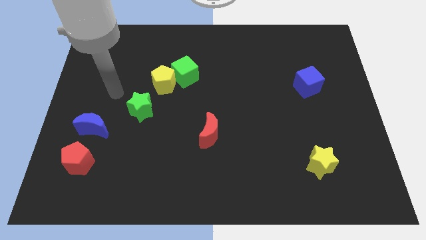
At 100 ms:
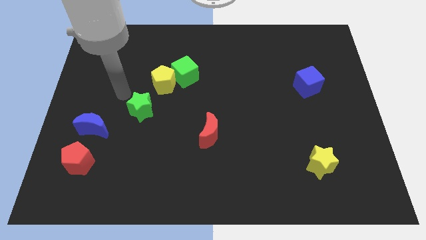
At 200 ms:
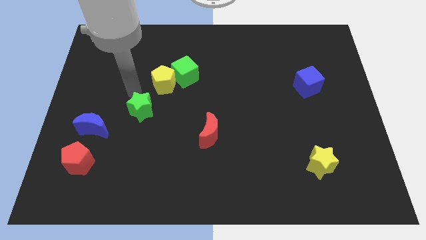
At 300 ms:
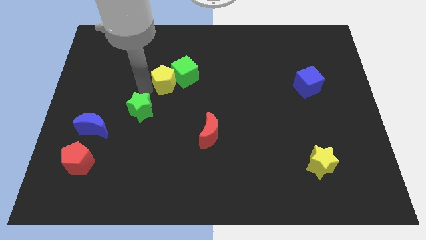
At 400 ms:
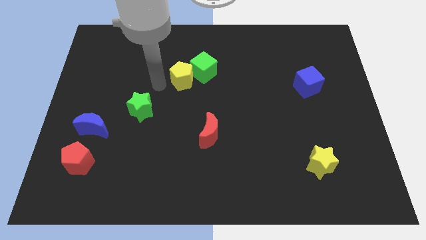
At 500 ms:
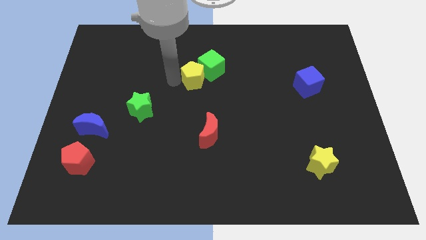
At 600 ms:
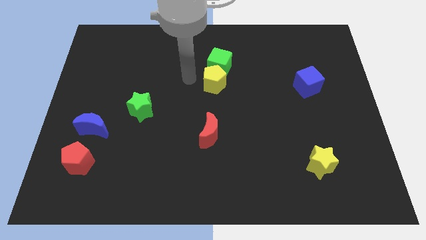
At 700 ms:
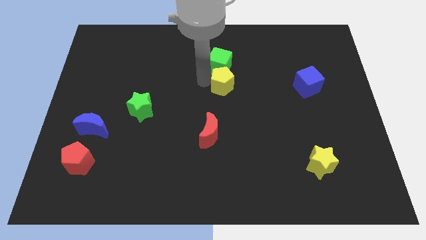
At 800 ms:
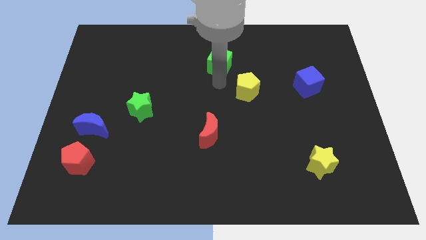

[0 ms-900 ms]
pull the green cube apart from the yellow pentagon

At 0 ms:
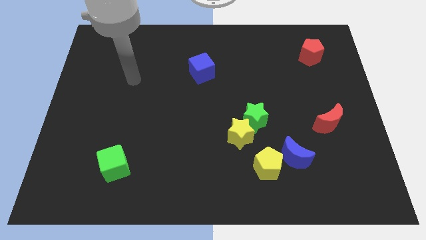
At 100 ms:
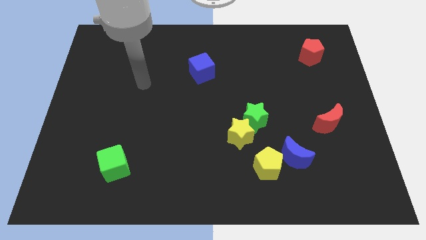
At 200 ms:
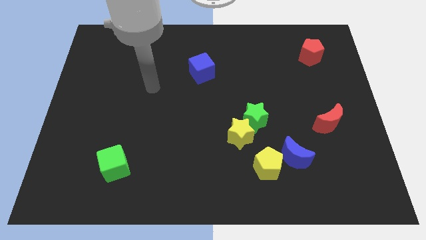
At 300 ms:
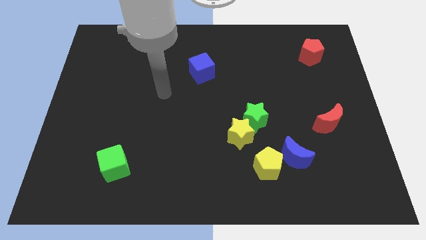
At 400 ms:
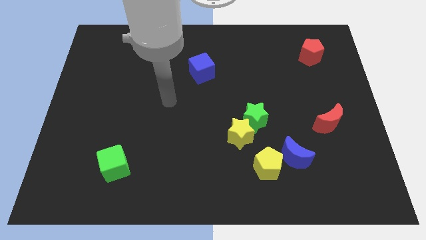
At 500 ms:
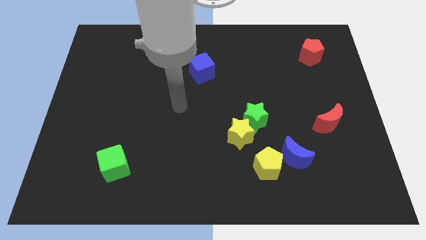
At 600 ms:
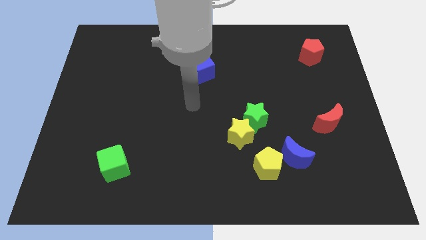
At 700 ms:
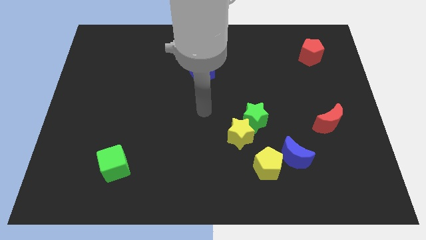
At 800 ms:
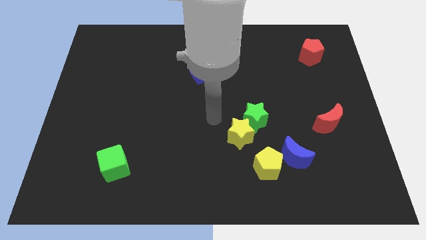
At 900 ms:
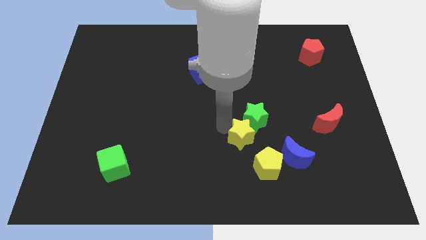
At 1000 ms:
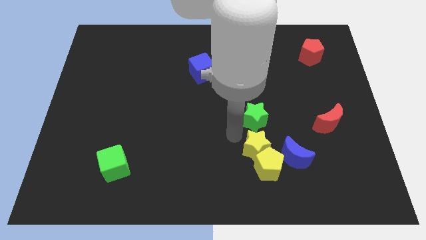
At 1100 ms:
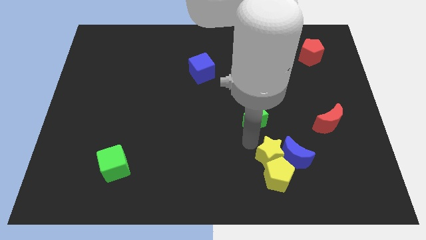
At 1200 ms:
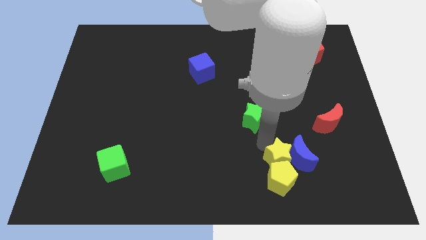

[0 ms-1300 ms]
pull the green star apart from the yellow star

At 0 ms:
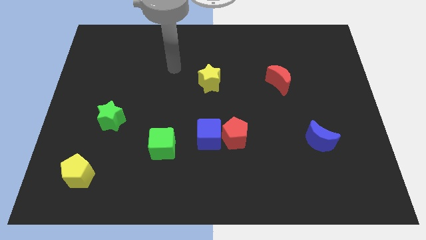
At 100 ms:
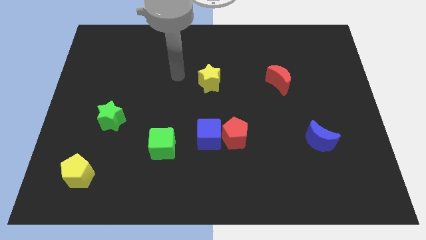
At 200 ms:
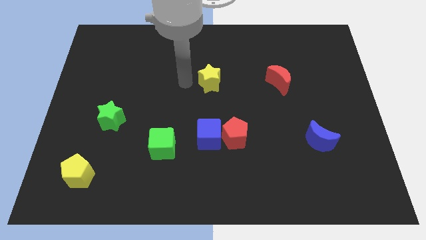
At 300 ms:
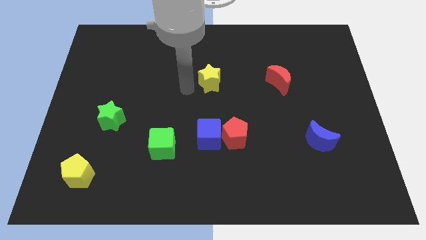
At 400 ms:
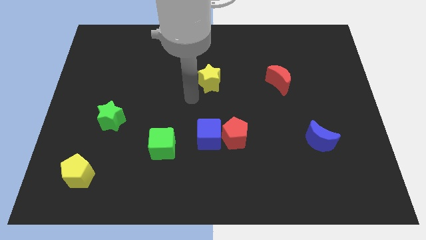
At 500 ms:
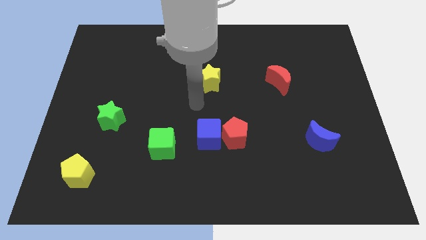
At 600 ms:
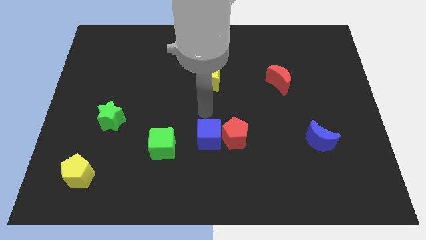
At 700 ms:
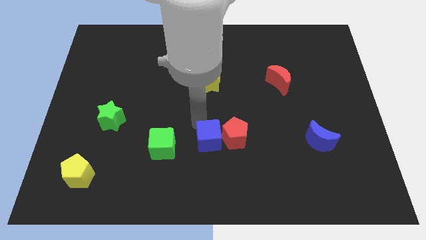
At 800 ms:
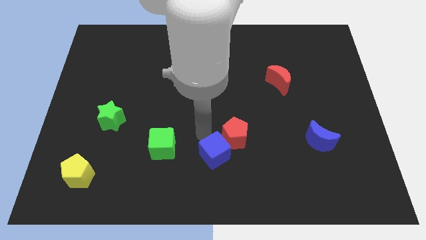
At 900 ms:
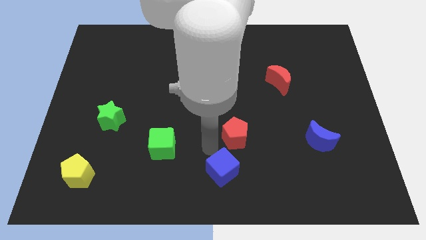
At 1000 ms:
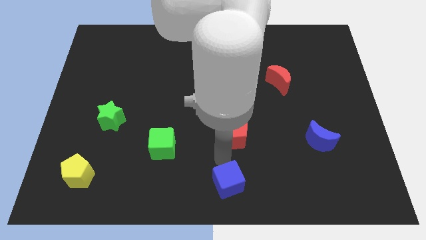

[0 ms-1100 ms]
pull the red pentagon apart from the blue cube

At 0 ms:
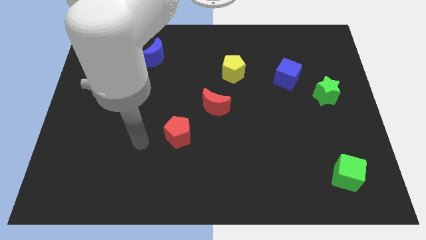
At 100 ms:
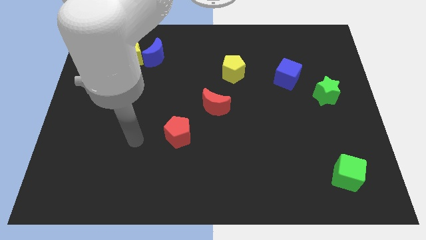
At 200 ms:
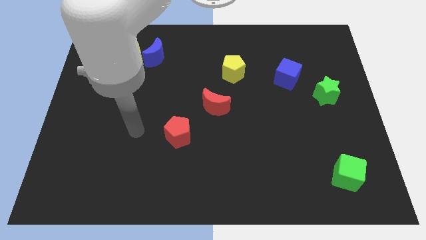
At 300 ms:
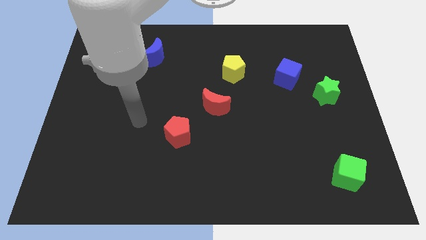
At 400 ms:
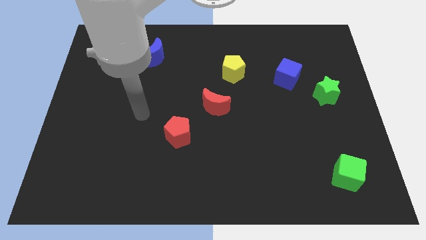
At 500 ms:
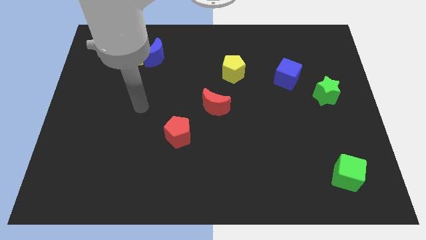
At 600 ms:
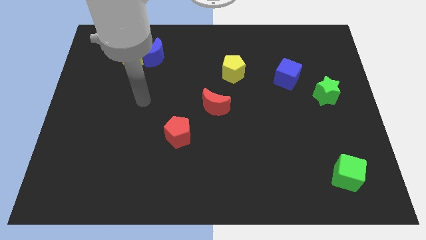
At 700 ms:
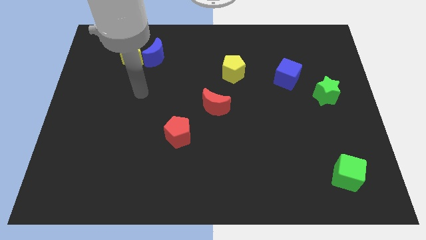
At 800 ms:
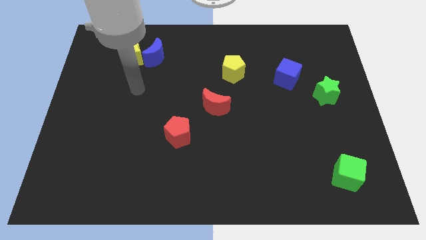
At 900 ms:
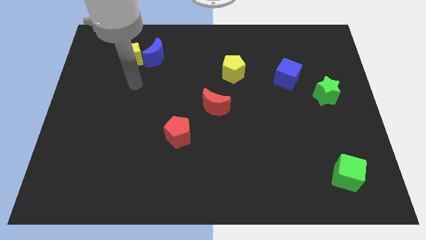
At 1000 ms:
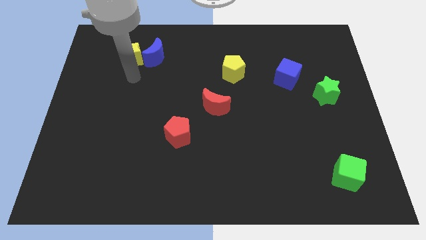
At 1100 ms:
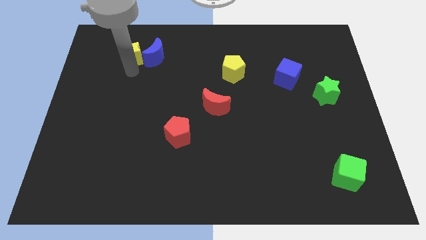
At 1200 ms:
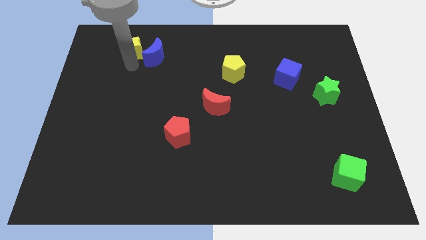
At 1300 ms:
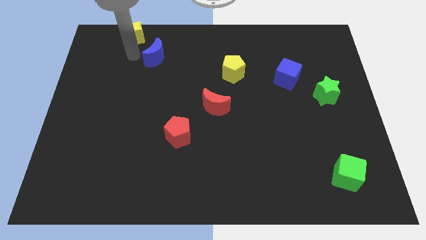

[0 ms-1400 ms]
separate the blue moon from the yellow star

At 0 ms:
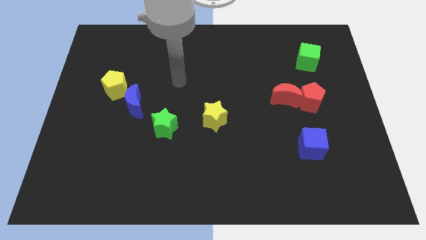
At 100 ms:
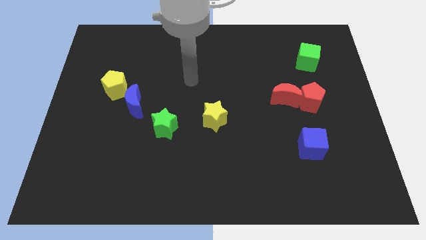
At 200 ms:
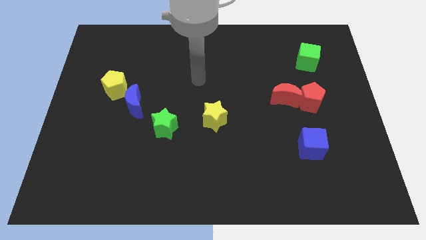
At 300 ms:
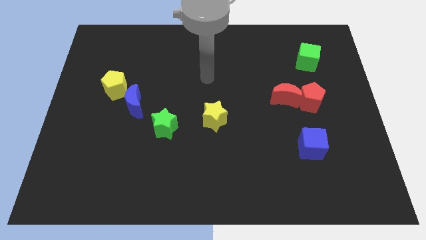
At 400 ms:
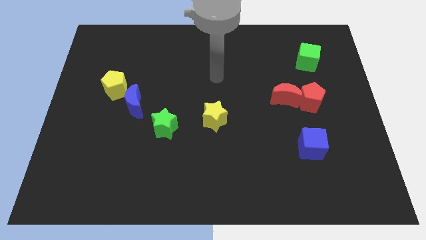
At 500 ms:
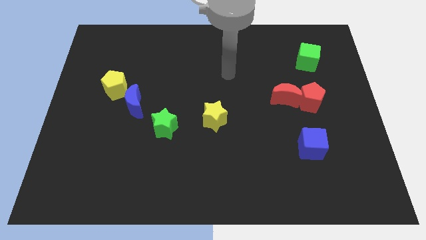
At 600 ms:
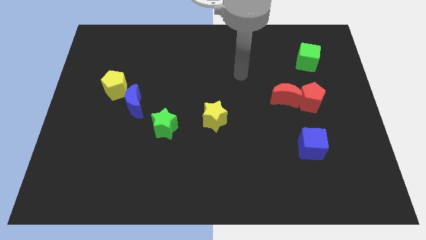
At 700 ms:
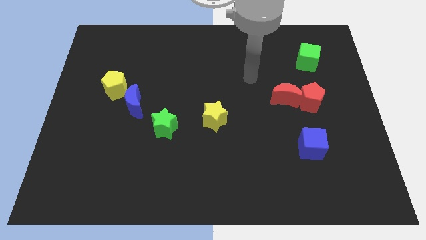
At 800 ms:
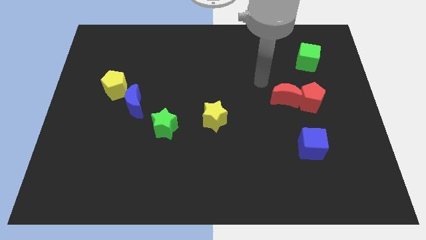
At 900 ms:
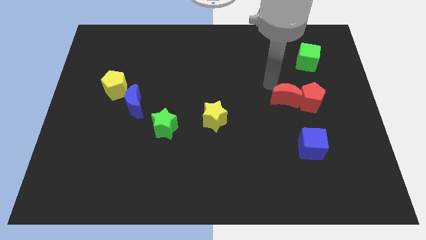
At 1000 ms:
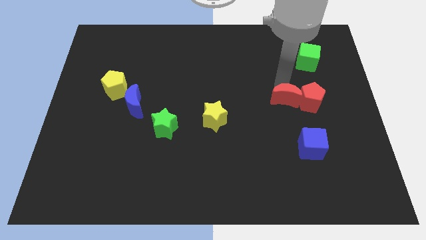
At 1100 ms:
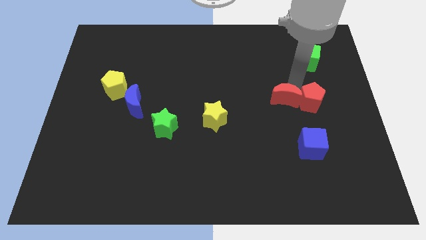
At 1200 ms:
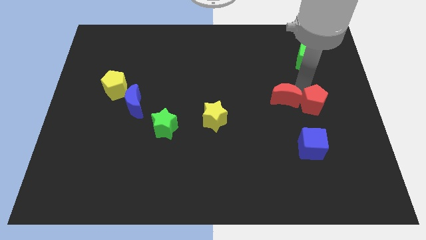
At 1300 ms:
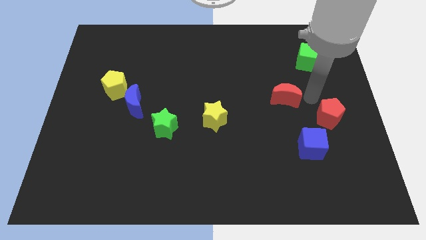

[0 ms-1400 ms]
separate the red moon from the red pentagon

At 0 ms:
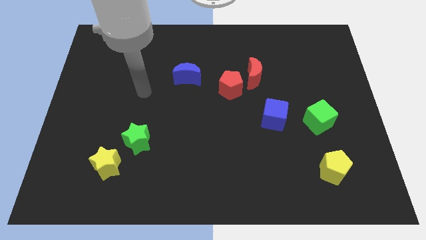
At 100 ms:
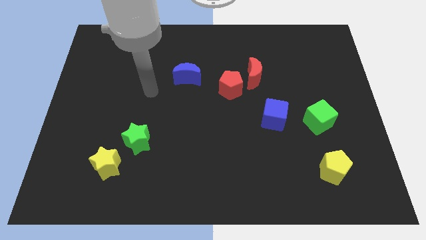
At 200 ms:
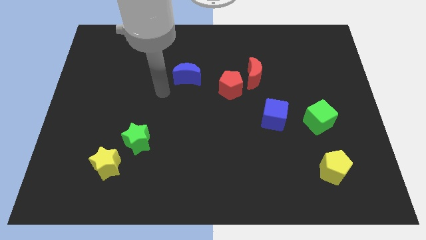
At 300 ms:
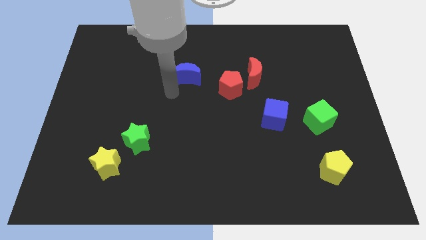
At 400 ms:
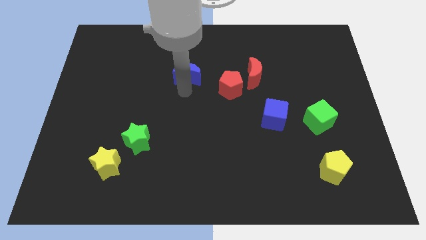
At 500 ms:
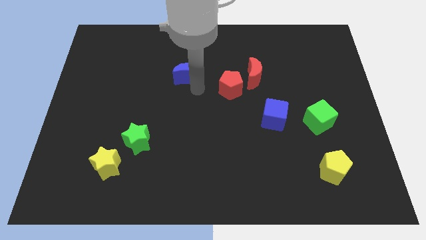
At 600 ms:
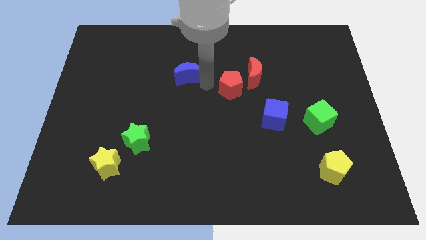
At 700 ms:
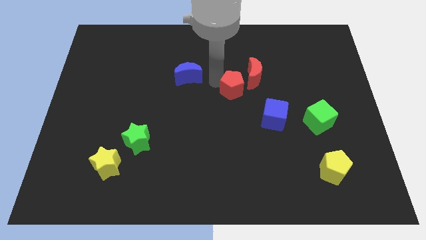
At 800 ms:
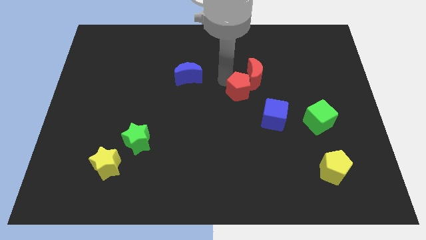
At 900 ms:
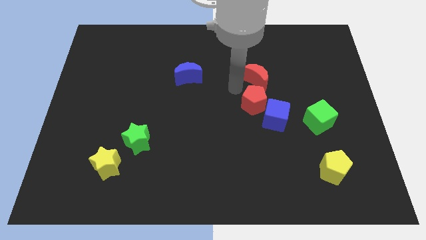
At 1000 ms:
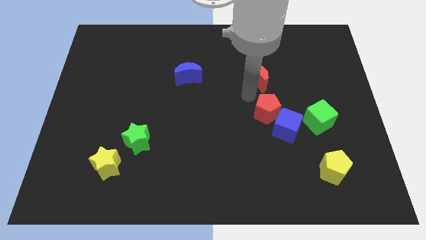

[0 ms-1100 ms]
move the red moon away from the red pentagon

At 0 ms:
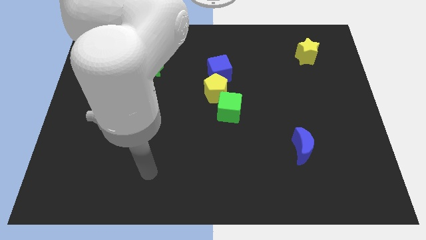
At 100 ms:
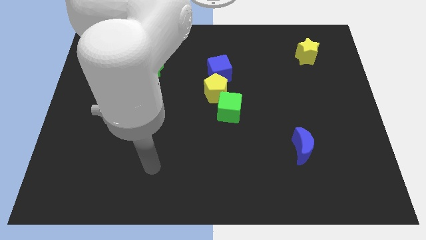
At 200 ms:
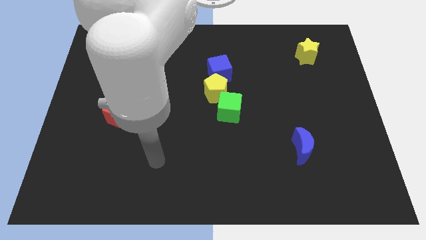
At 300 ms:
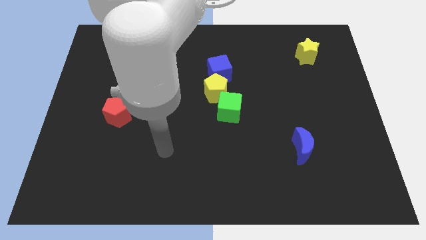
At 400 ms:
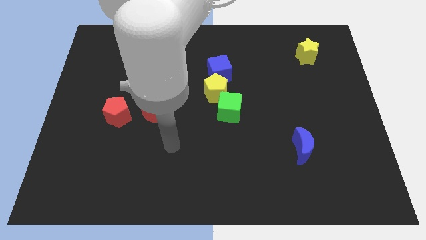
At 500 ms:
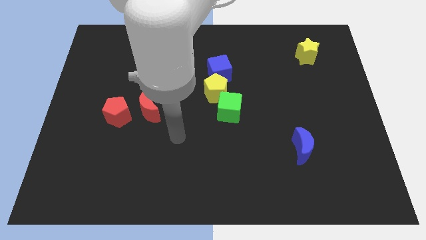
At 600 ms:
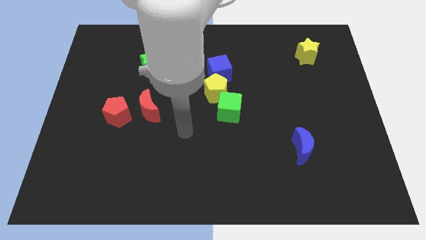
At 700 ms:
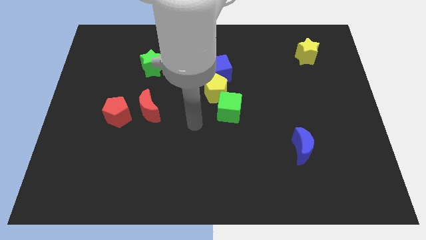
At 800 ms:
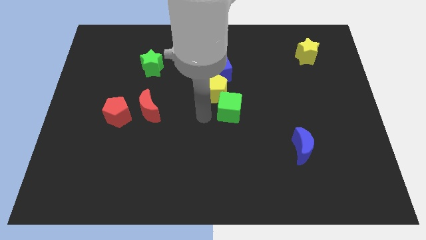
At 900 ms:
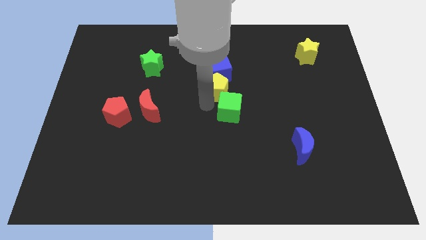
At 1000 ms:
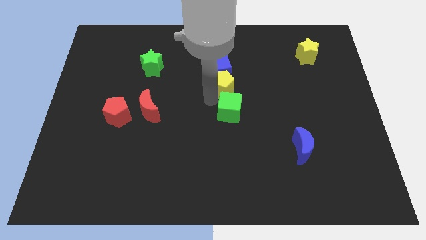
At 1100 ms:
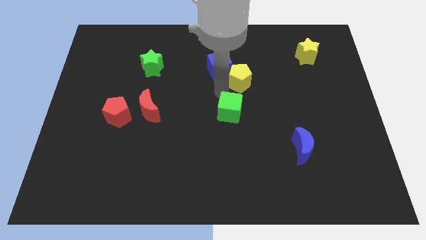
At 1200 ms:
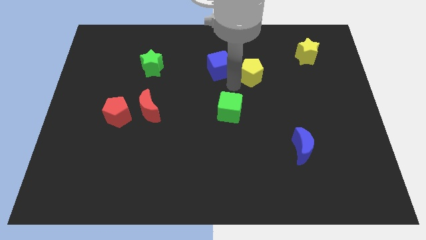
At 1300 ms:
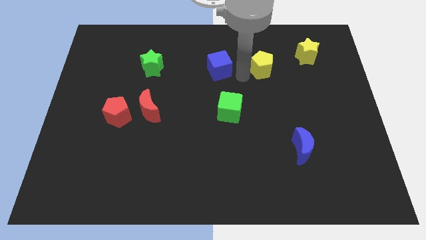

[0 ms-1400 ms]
move the blue cube away from the yellow pentagon

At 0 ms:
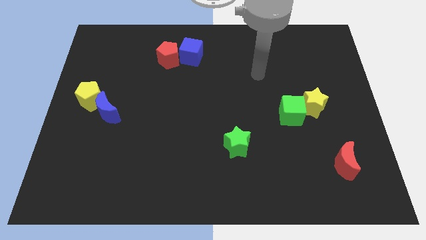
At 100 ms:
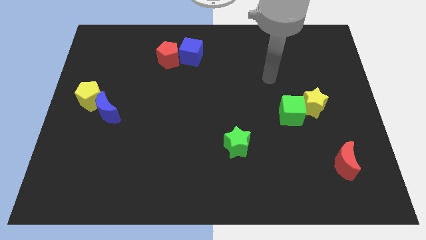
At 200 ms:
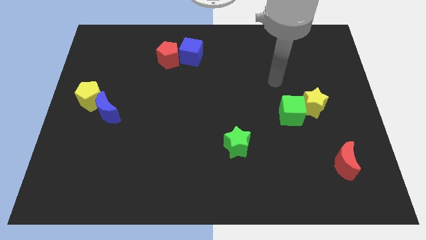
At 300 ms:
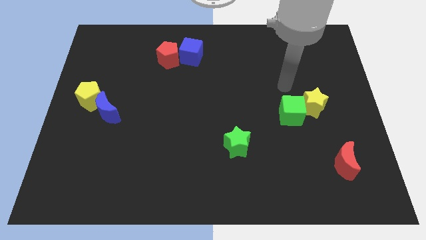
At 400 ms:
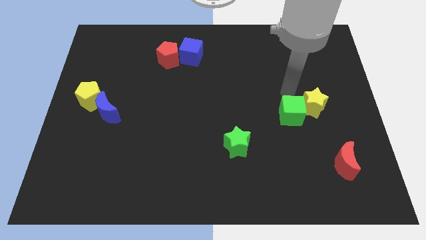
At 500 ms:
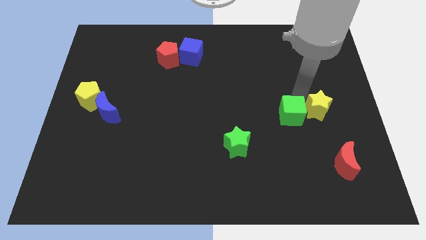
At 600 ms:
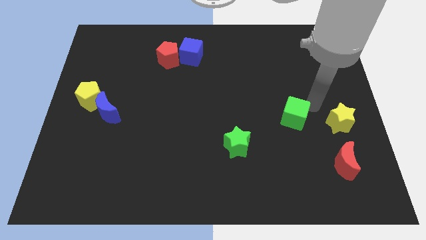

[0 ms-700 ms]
move the green cube away from the yellow star

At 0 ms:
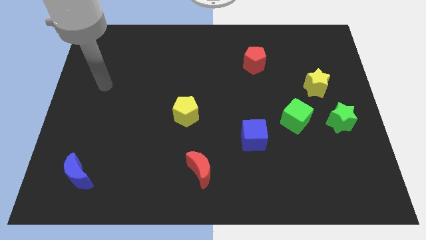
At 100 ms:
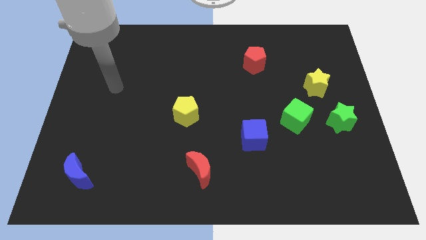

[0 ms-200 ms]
pull the green cube apart from the green star
